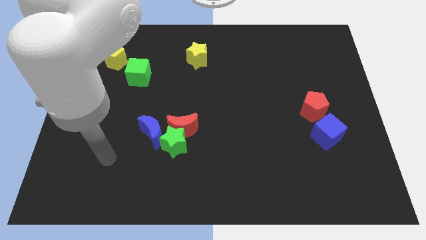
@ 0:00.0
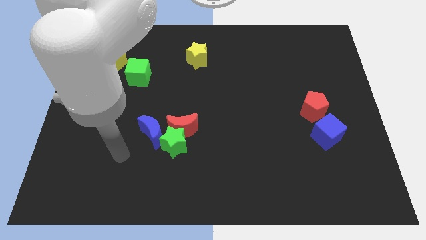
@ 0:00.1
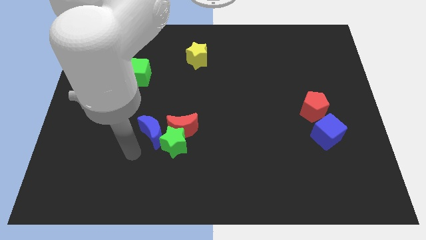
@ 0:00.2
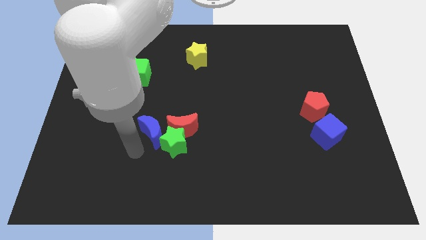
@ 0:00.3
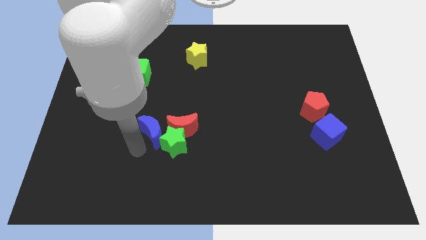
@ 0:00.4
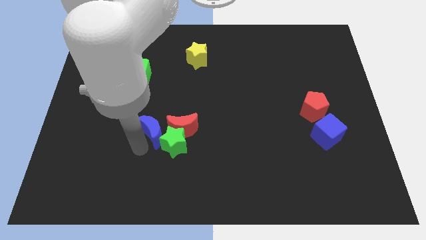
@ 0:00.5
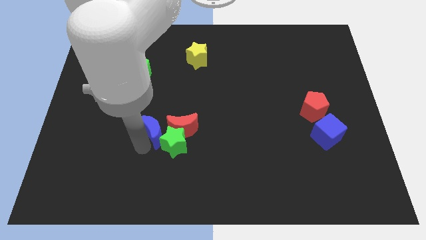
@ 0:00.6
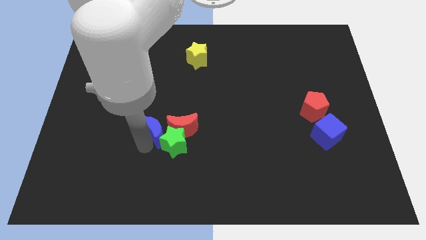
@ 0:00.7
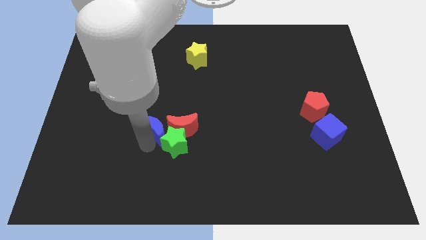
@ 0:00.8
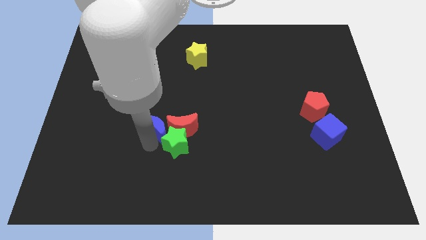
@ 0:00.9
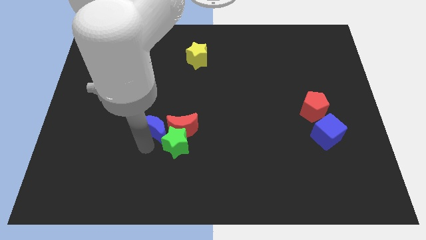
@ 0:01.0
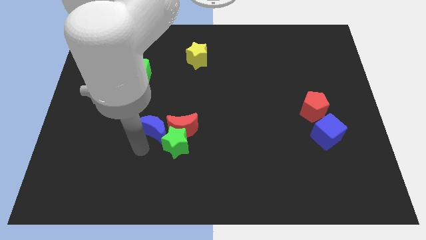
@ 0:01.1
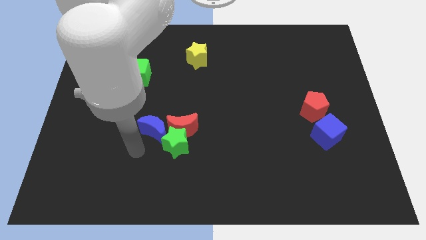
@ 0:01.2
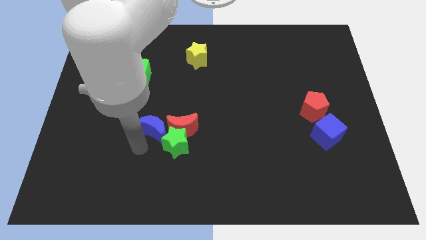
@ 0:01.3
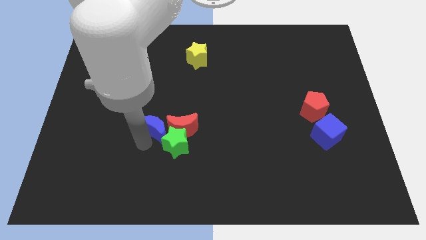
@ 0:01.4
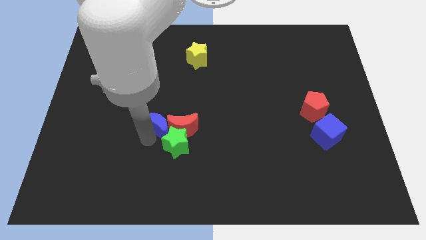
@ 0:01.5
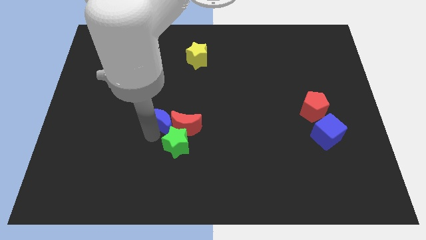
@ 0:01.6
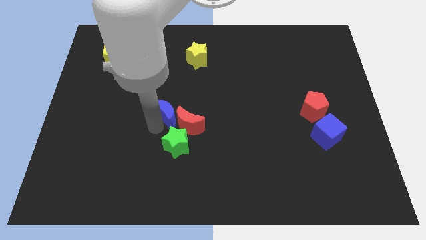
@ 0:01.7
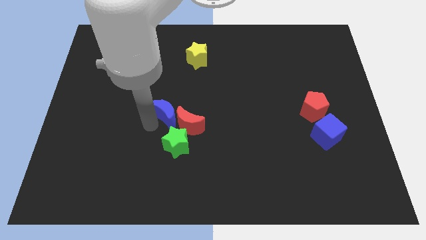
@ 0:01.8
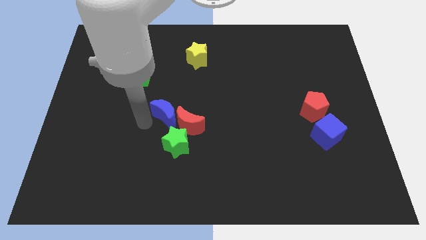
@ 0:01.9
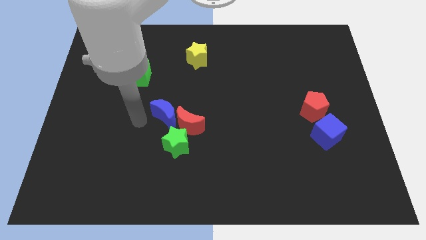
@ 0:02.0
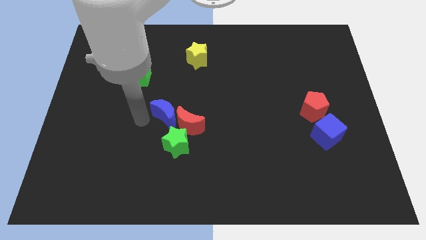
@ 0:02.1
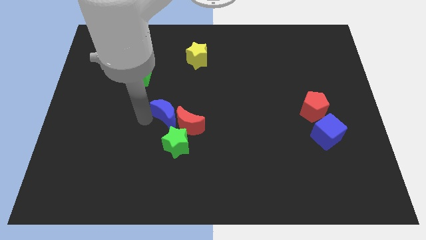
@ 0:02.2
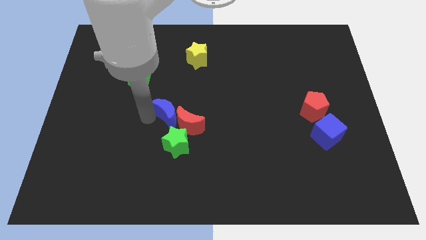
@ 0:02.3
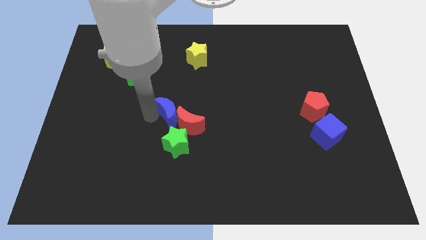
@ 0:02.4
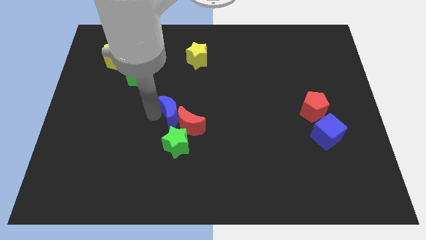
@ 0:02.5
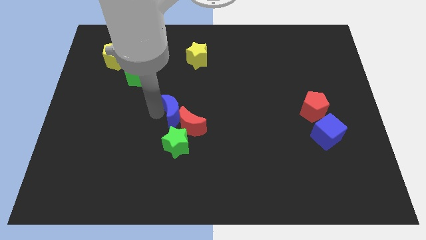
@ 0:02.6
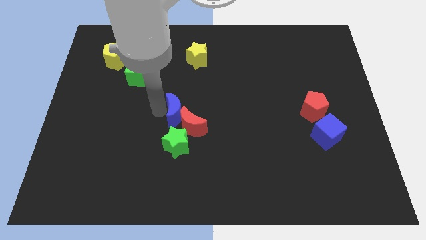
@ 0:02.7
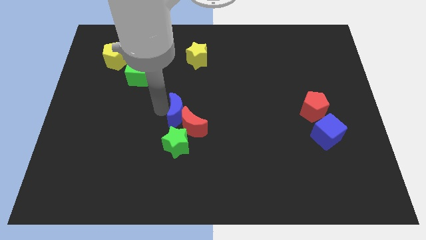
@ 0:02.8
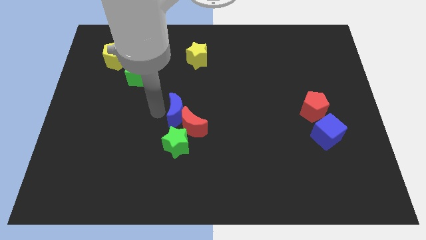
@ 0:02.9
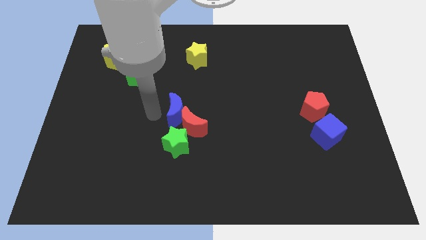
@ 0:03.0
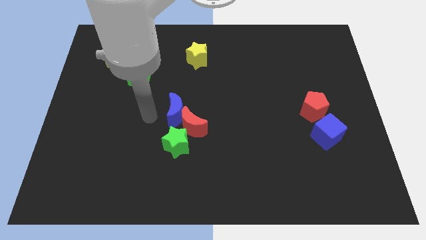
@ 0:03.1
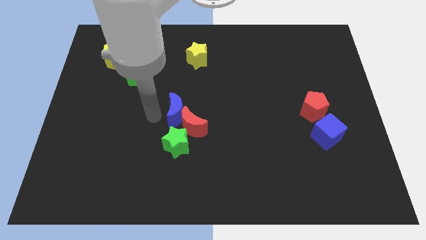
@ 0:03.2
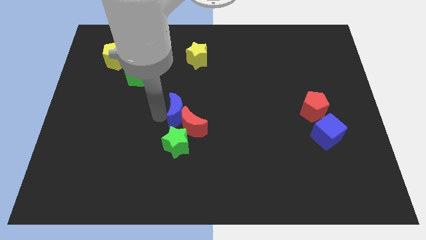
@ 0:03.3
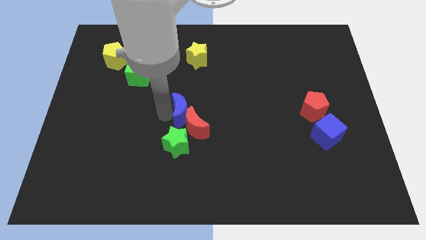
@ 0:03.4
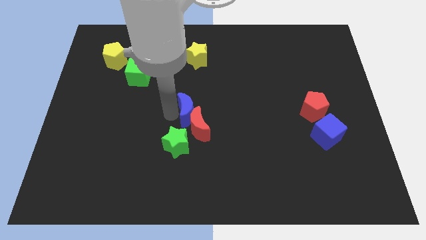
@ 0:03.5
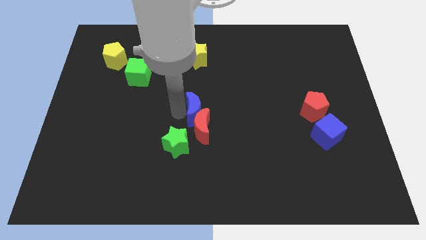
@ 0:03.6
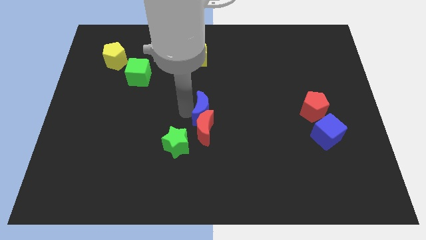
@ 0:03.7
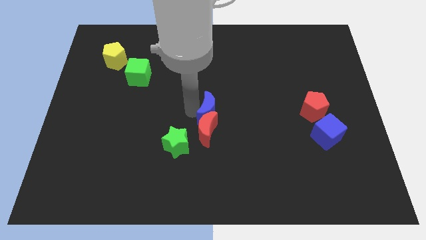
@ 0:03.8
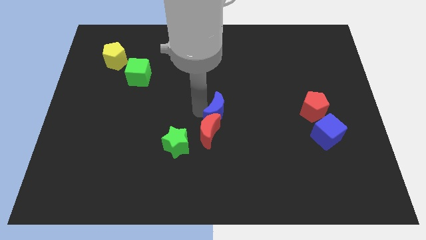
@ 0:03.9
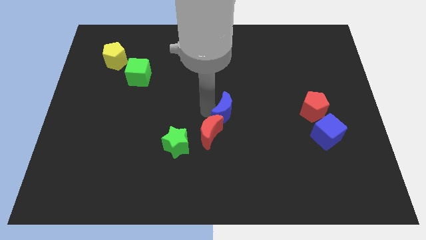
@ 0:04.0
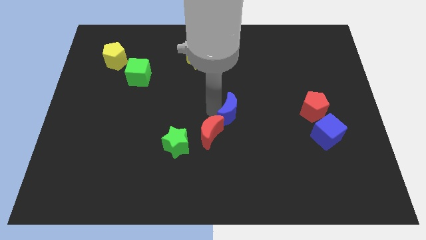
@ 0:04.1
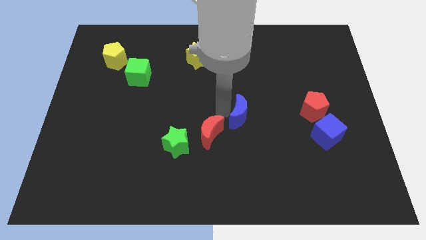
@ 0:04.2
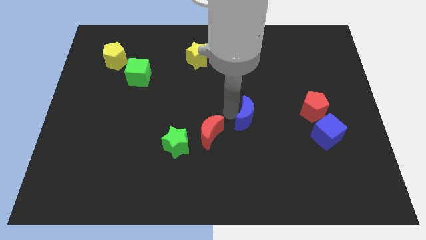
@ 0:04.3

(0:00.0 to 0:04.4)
slide the blue moon to the right

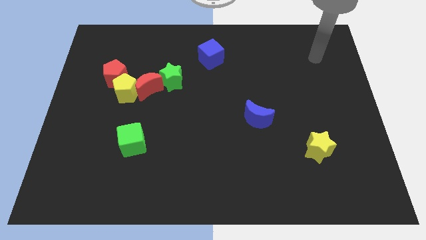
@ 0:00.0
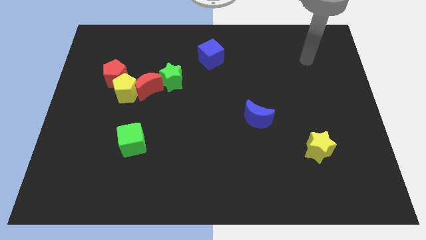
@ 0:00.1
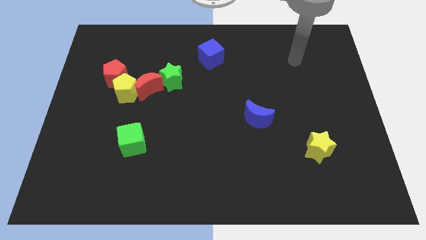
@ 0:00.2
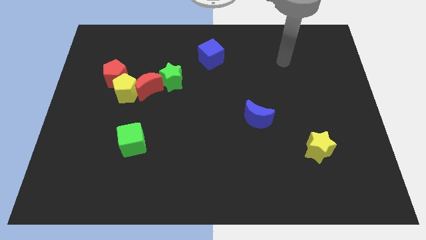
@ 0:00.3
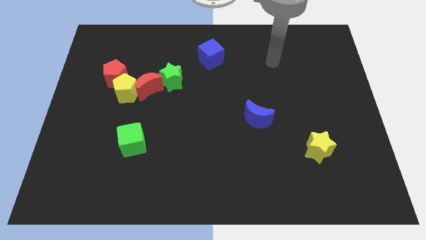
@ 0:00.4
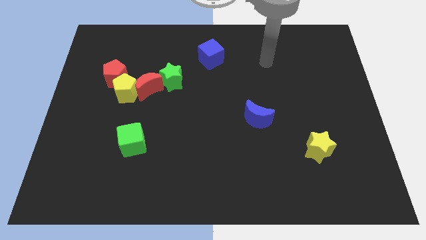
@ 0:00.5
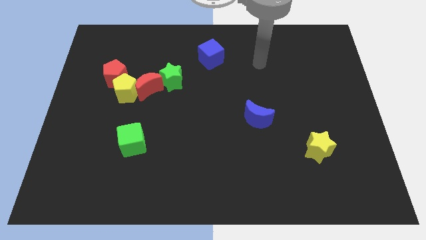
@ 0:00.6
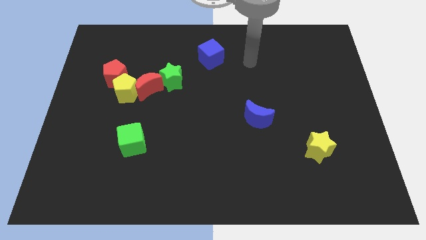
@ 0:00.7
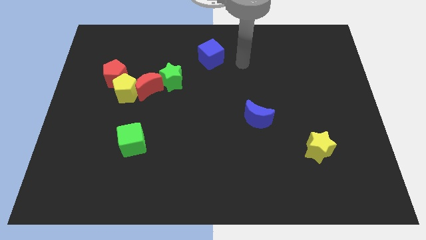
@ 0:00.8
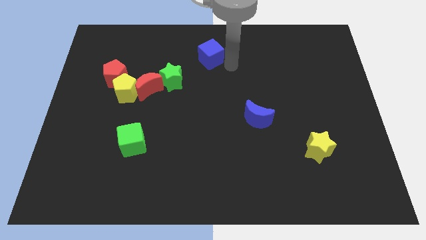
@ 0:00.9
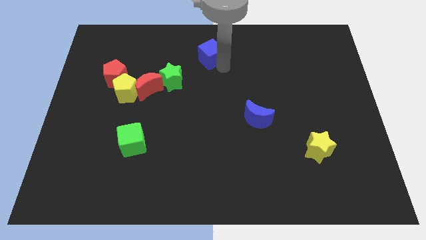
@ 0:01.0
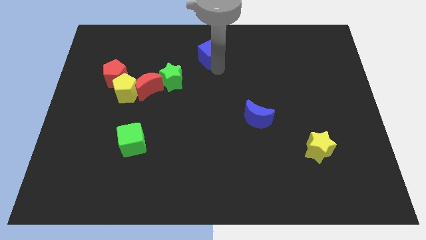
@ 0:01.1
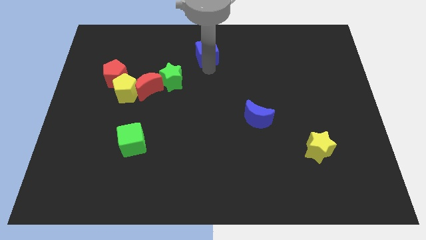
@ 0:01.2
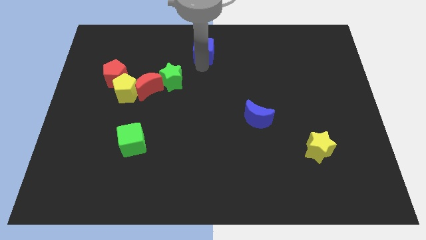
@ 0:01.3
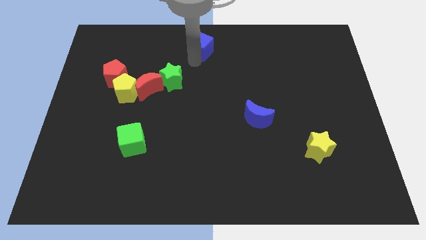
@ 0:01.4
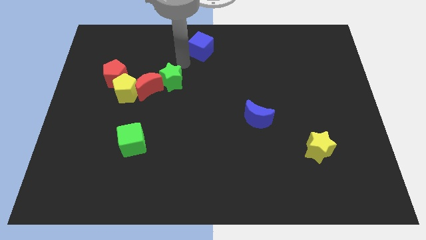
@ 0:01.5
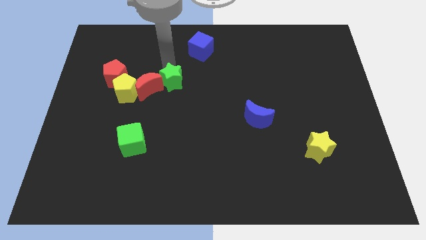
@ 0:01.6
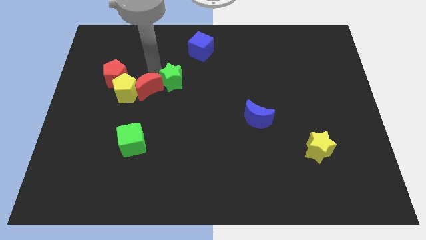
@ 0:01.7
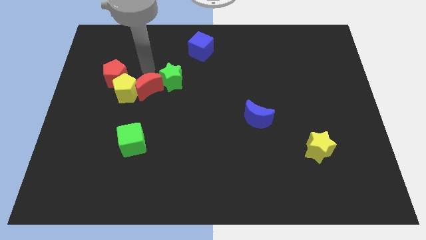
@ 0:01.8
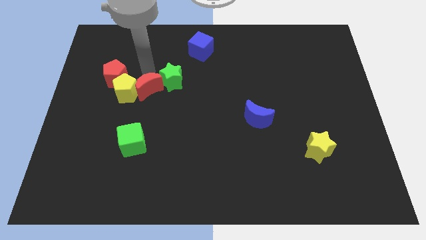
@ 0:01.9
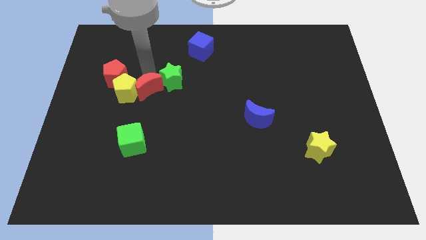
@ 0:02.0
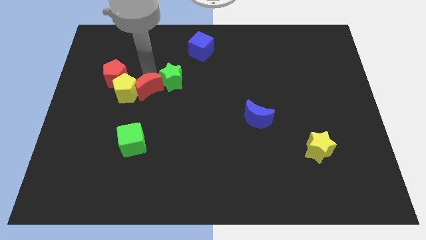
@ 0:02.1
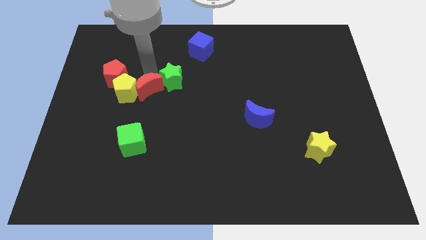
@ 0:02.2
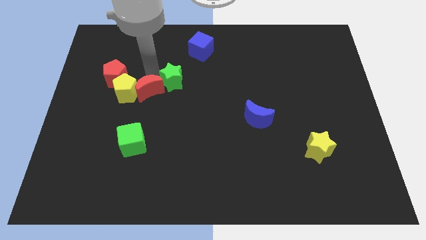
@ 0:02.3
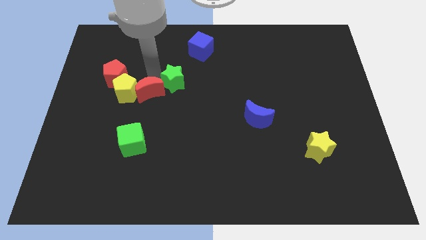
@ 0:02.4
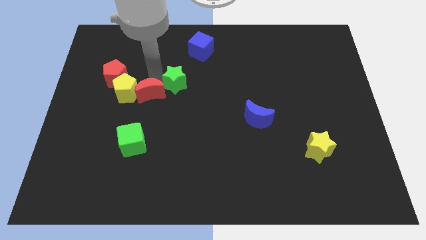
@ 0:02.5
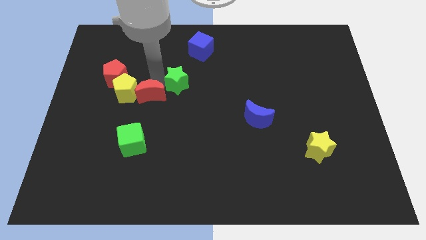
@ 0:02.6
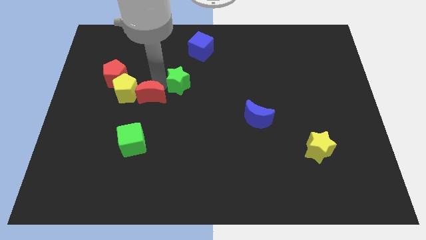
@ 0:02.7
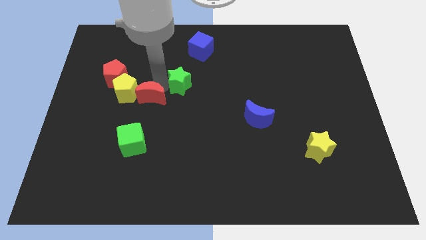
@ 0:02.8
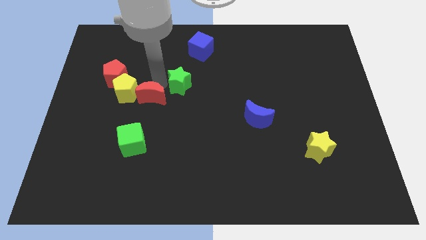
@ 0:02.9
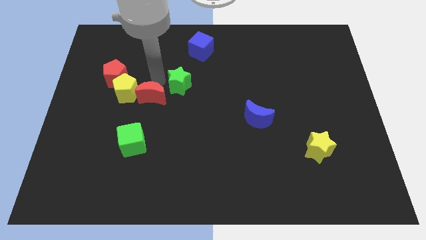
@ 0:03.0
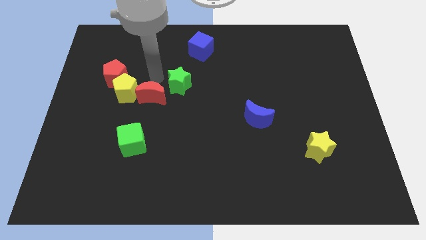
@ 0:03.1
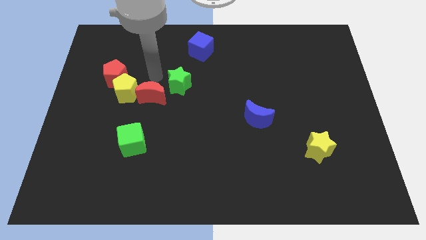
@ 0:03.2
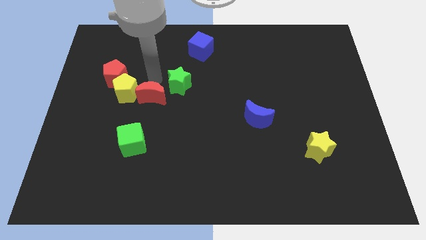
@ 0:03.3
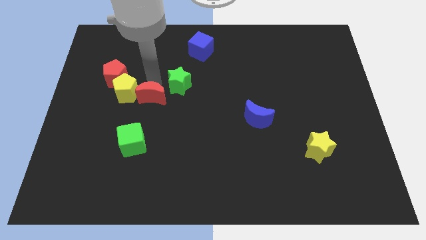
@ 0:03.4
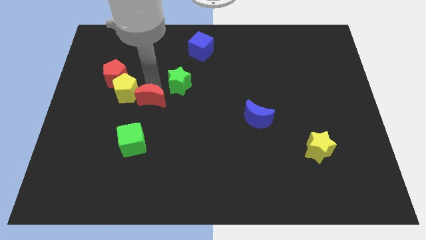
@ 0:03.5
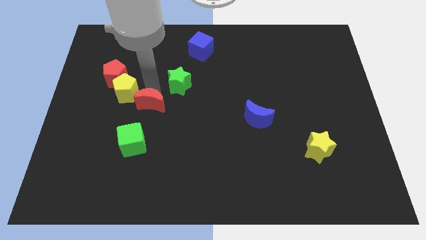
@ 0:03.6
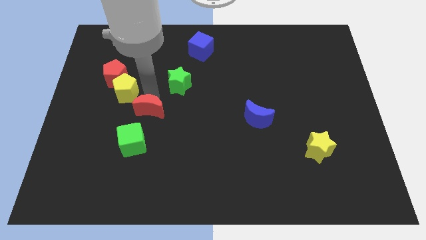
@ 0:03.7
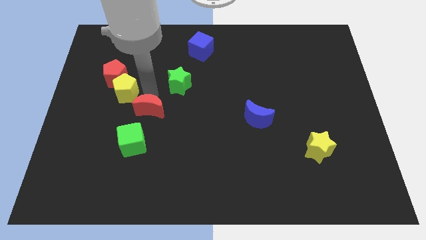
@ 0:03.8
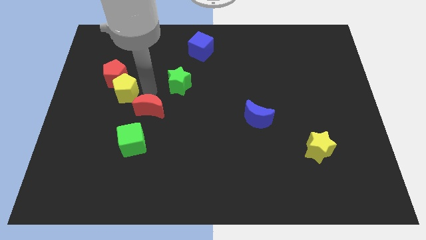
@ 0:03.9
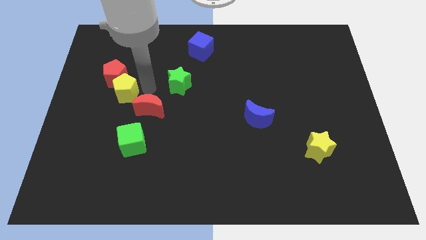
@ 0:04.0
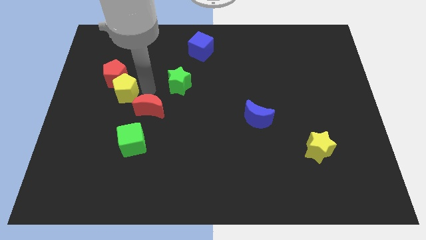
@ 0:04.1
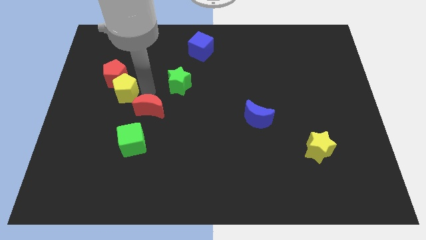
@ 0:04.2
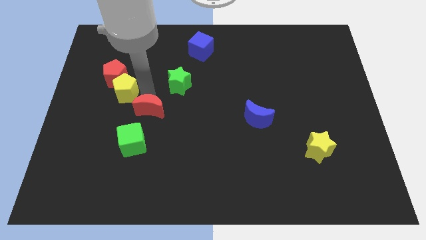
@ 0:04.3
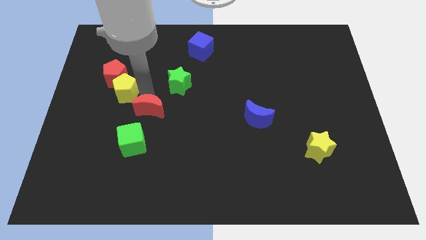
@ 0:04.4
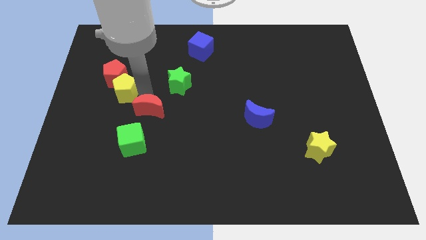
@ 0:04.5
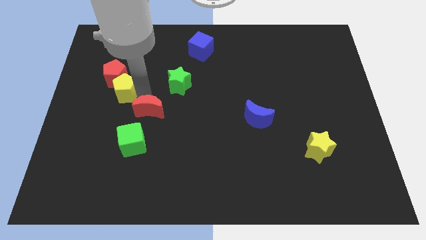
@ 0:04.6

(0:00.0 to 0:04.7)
move the red moon down slightly
